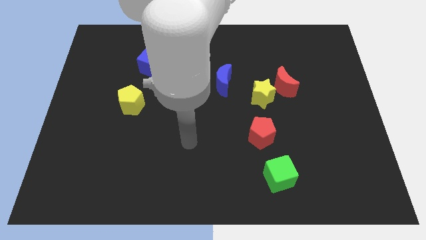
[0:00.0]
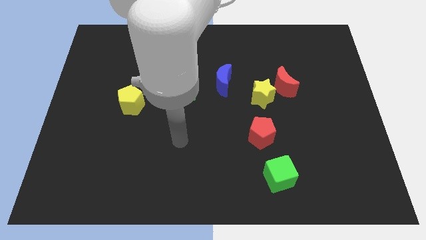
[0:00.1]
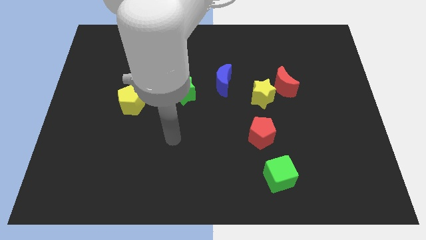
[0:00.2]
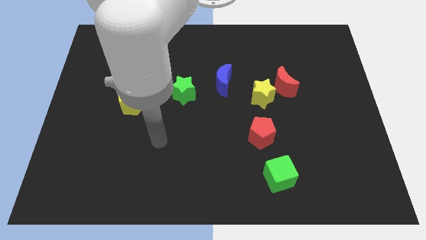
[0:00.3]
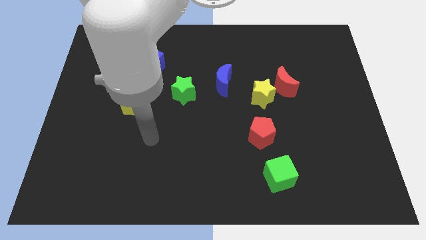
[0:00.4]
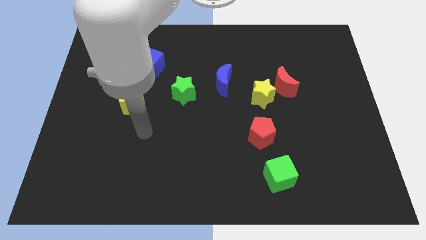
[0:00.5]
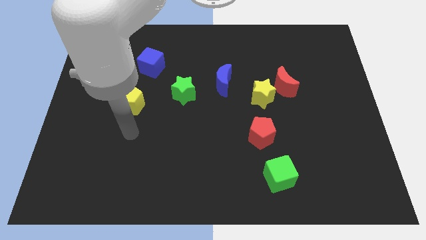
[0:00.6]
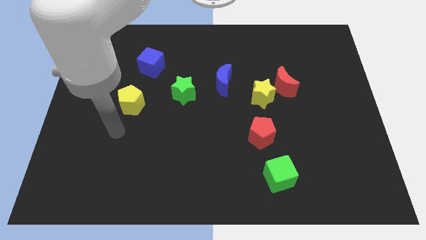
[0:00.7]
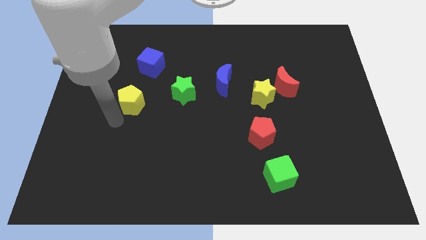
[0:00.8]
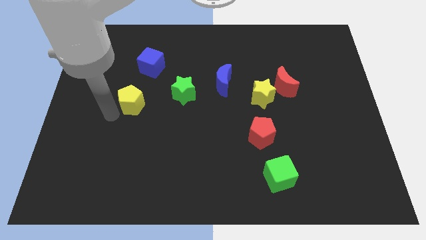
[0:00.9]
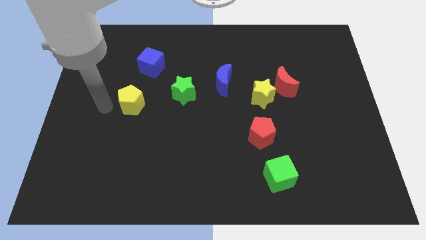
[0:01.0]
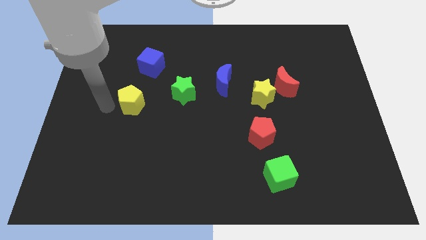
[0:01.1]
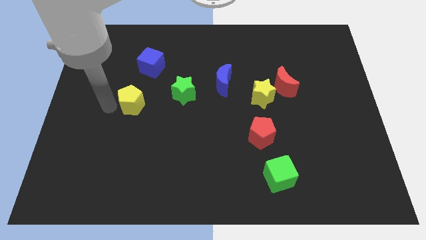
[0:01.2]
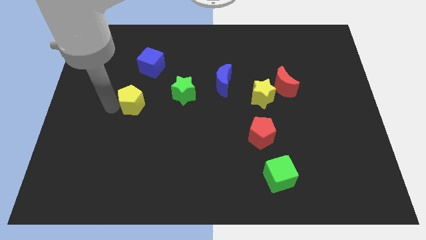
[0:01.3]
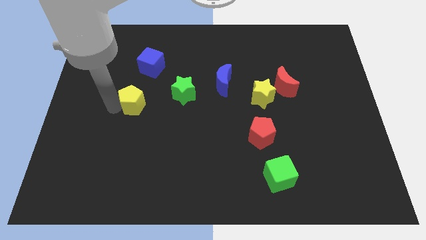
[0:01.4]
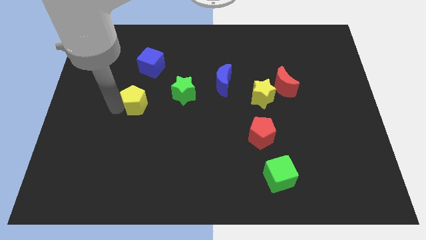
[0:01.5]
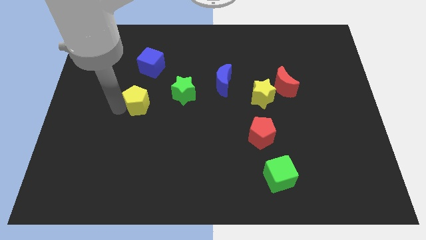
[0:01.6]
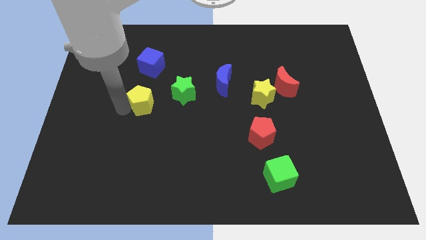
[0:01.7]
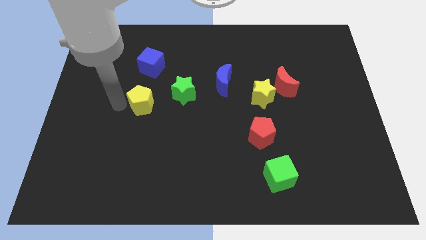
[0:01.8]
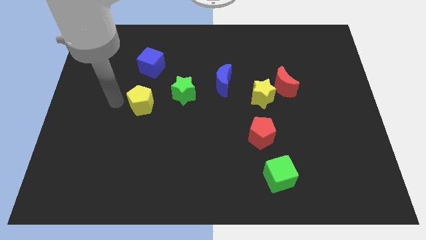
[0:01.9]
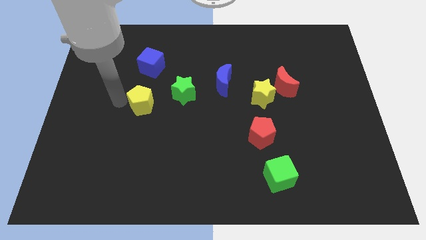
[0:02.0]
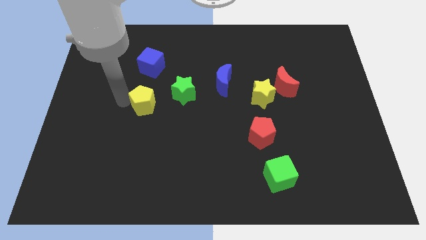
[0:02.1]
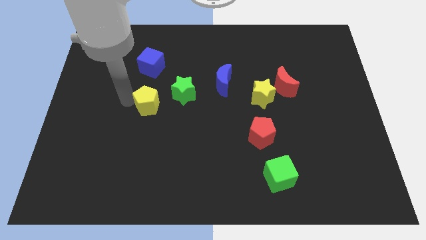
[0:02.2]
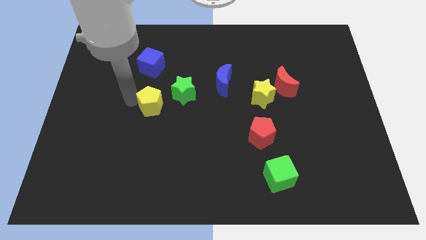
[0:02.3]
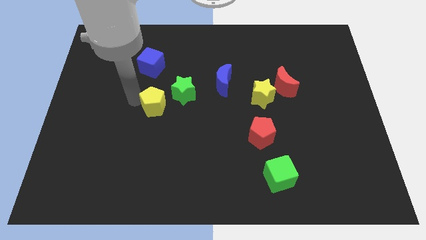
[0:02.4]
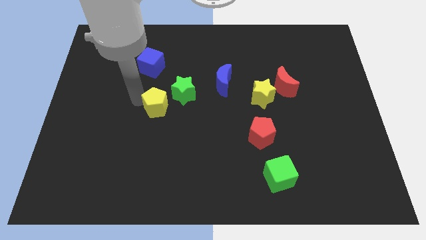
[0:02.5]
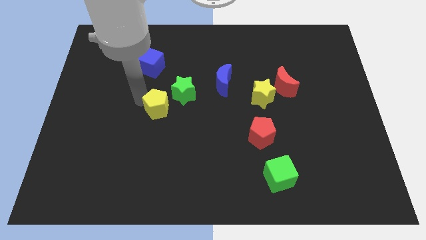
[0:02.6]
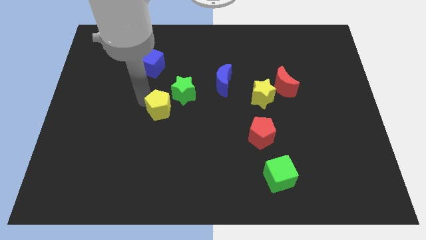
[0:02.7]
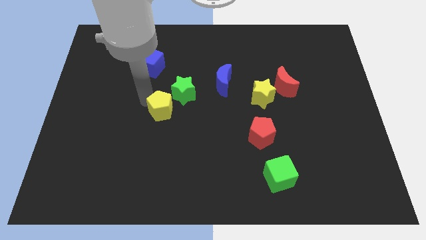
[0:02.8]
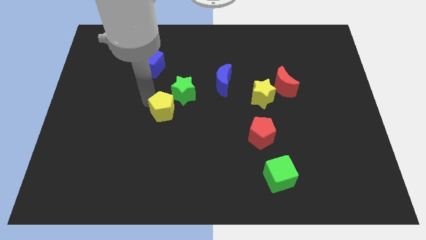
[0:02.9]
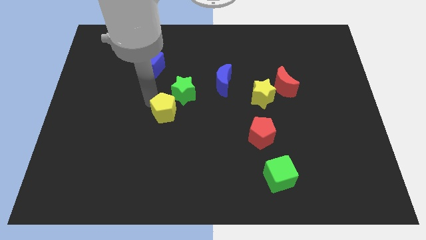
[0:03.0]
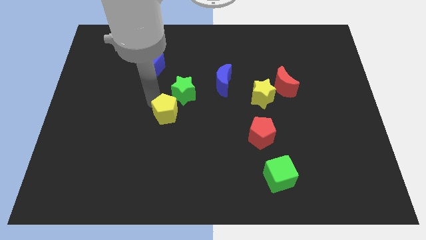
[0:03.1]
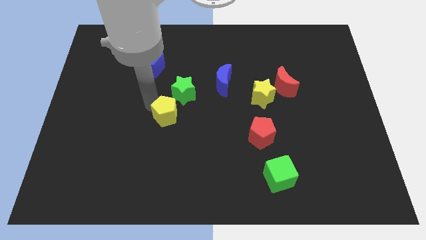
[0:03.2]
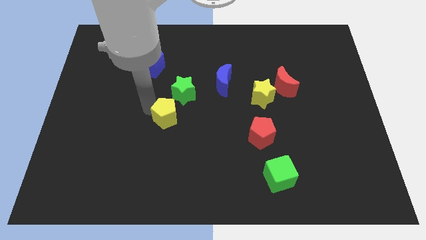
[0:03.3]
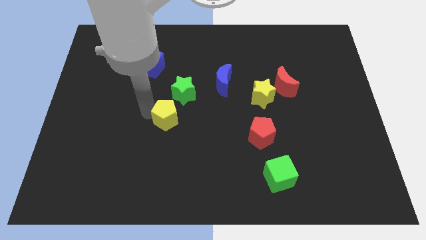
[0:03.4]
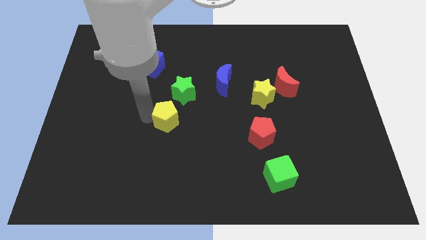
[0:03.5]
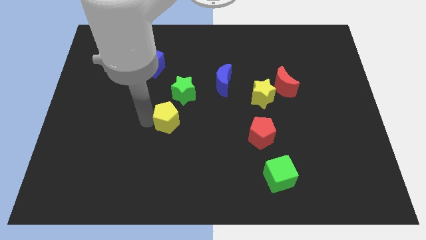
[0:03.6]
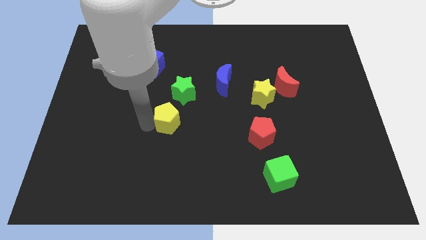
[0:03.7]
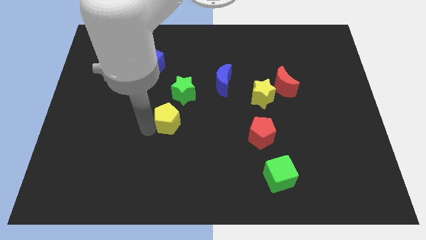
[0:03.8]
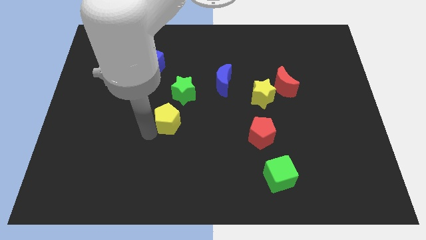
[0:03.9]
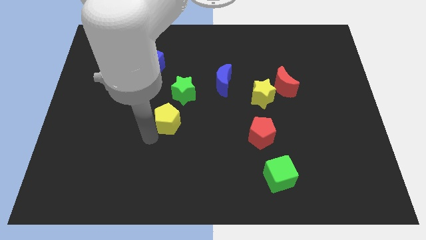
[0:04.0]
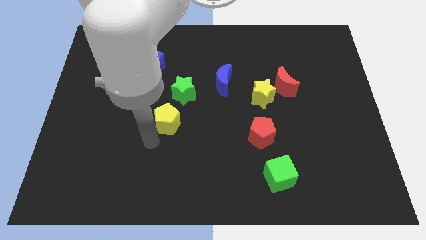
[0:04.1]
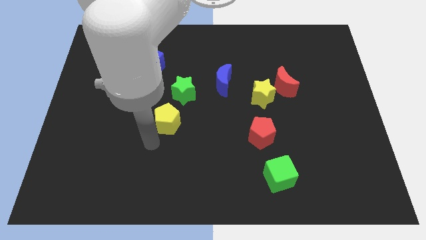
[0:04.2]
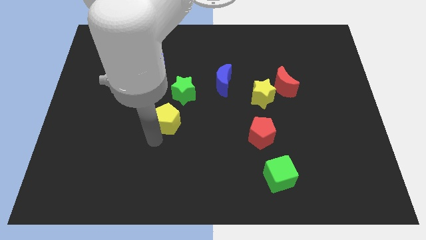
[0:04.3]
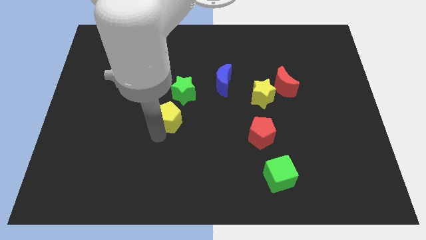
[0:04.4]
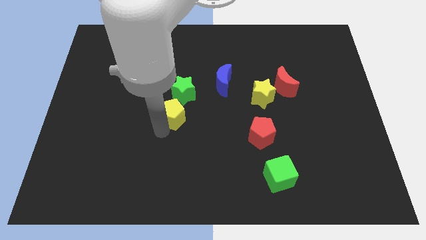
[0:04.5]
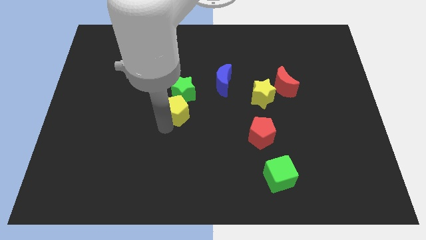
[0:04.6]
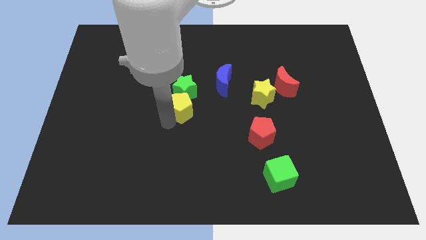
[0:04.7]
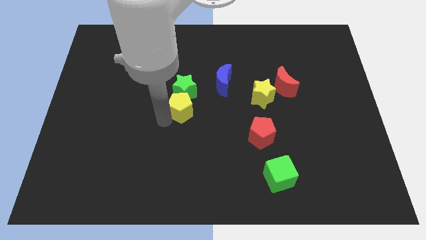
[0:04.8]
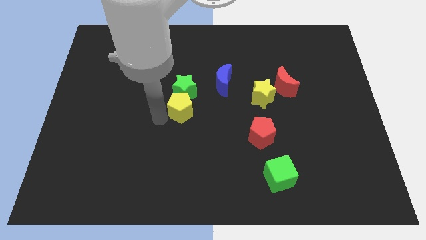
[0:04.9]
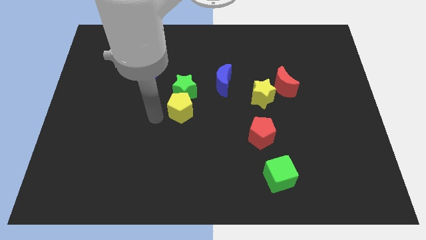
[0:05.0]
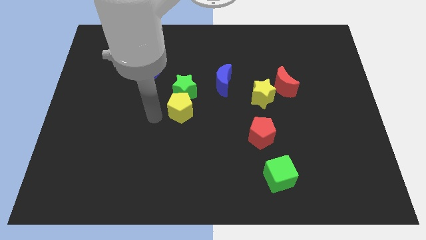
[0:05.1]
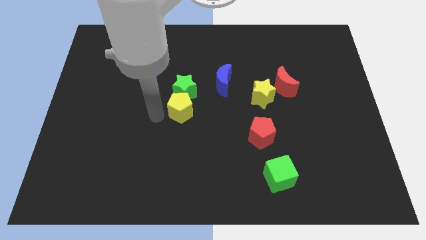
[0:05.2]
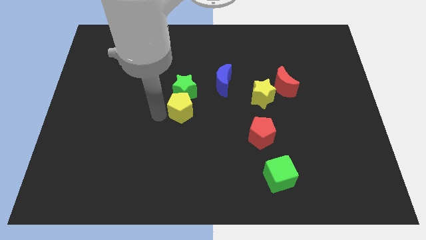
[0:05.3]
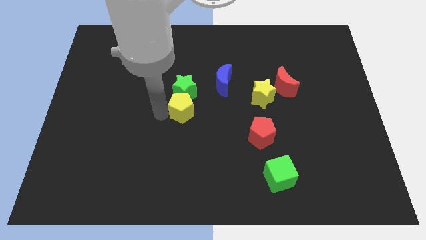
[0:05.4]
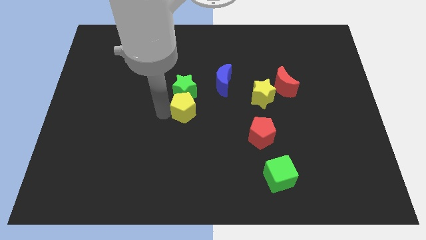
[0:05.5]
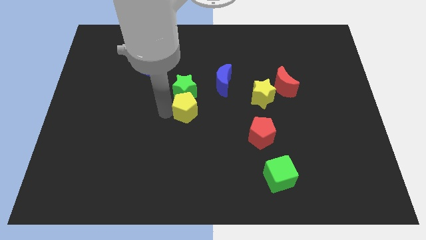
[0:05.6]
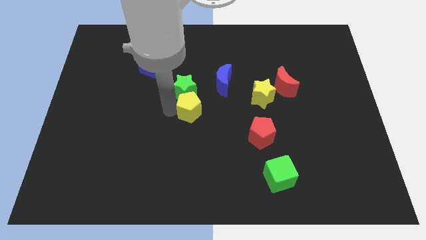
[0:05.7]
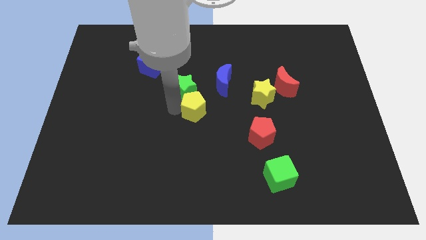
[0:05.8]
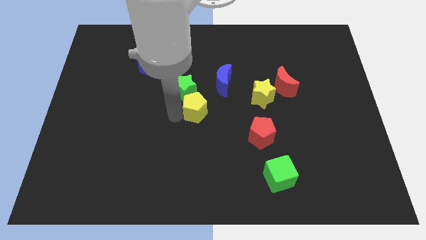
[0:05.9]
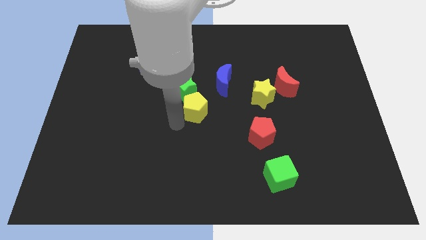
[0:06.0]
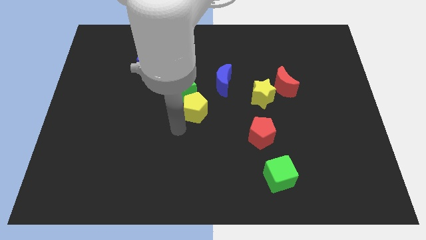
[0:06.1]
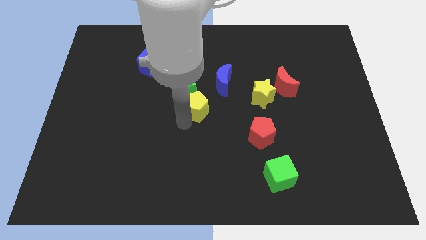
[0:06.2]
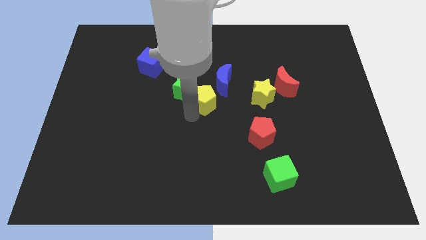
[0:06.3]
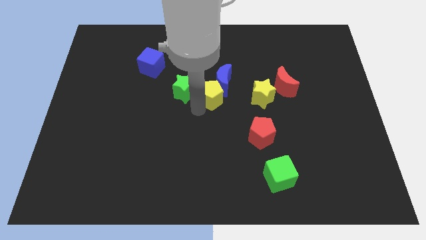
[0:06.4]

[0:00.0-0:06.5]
move the yellow pentagon to the blue moon
